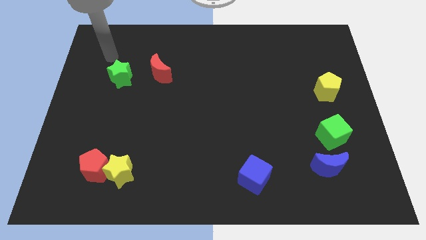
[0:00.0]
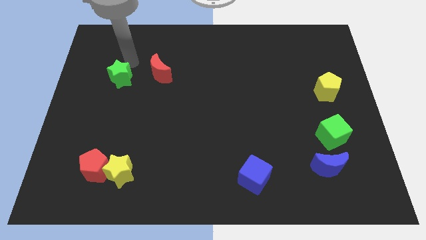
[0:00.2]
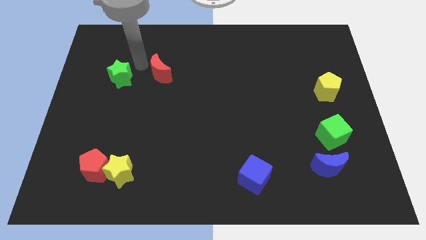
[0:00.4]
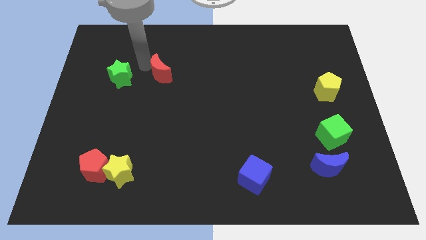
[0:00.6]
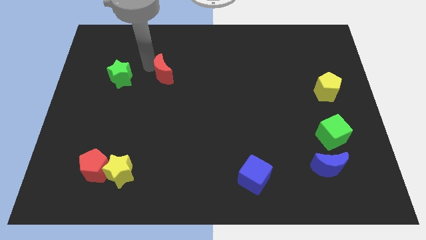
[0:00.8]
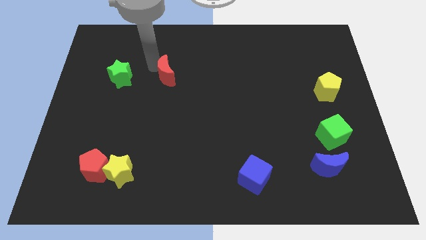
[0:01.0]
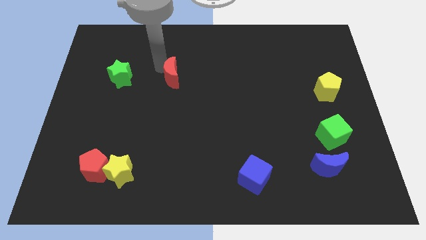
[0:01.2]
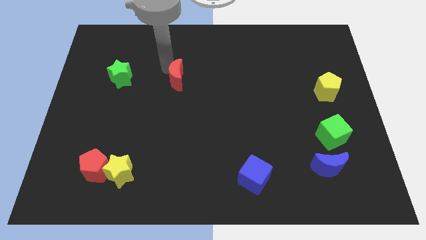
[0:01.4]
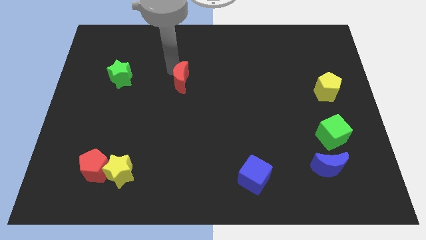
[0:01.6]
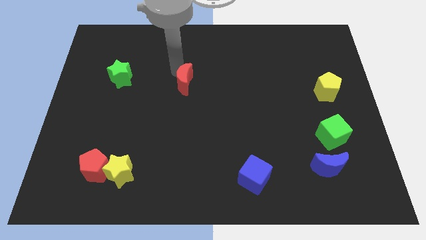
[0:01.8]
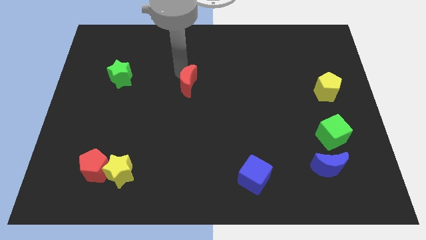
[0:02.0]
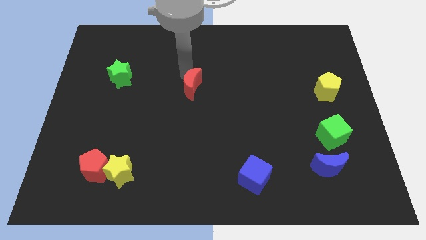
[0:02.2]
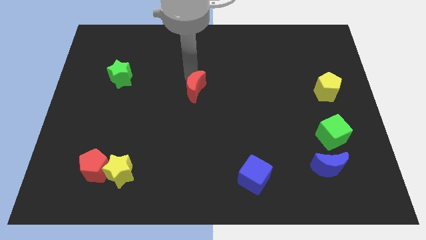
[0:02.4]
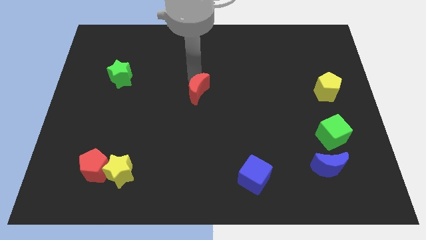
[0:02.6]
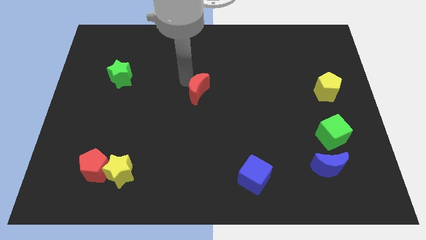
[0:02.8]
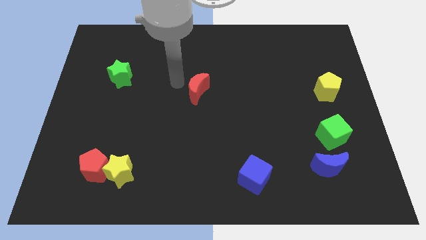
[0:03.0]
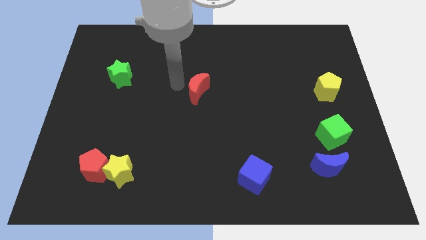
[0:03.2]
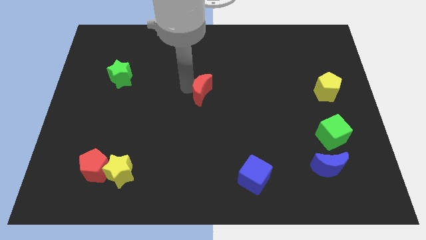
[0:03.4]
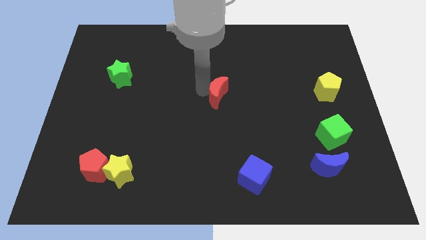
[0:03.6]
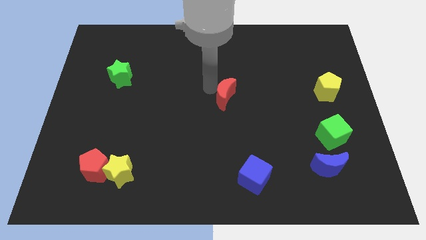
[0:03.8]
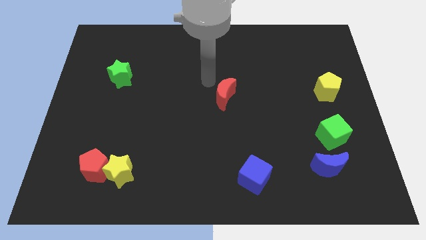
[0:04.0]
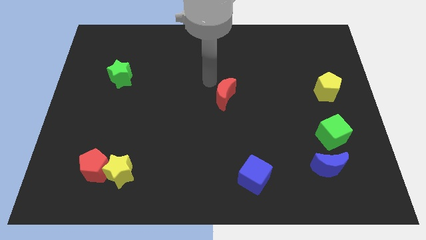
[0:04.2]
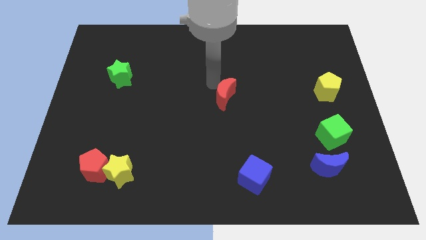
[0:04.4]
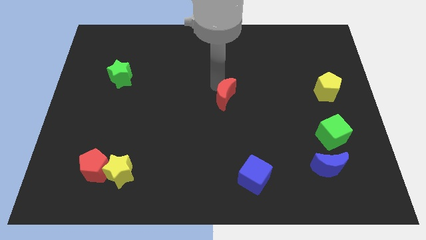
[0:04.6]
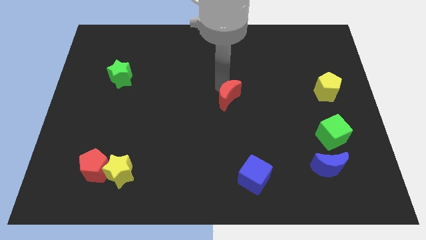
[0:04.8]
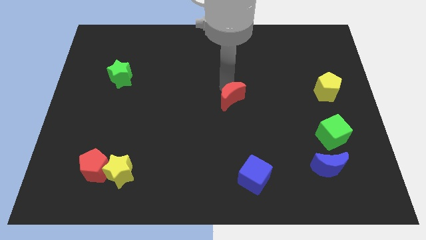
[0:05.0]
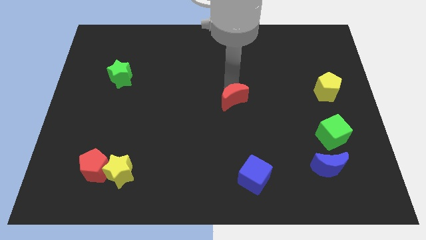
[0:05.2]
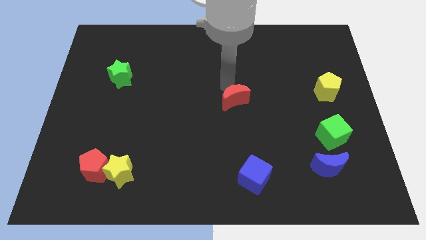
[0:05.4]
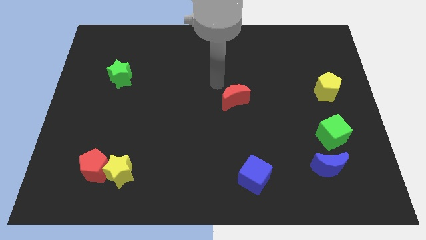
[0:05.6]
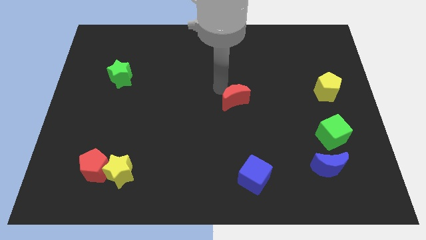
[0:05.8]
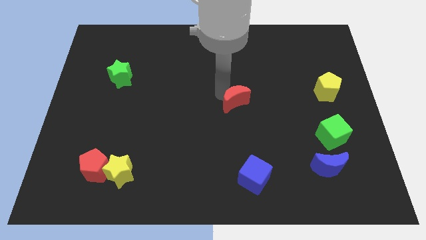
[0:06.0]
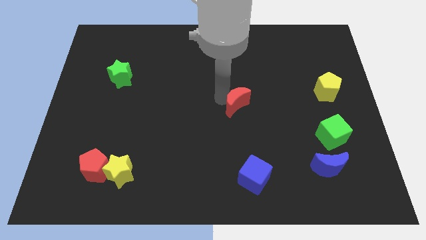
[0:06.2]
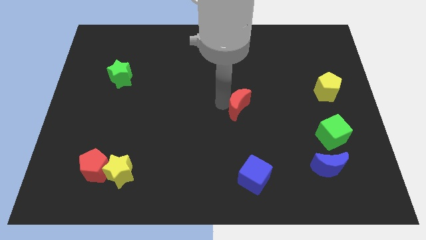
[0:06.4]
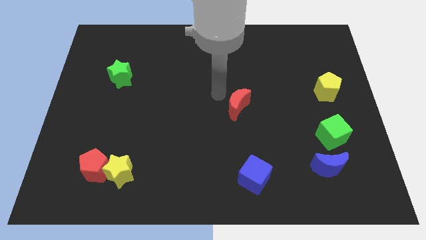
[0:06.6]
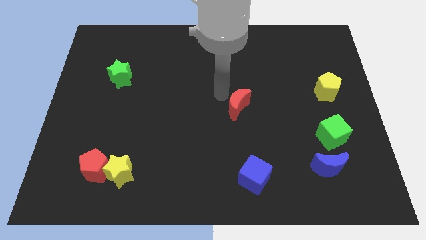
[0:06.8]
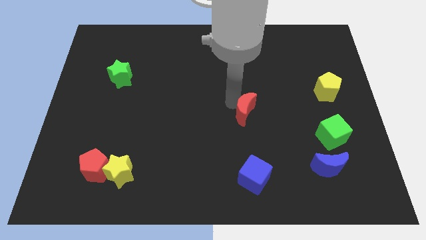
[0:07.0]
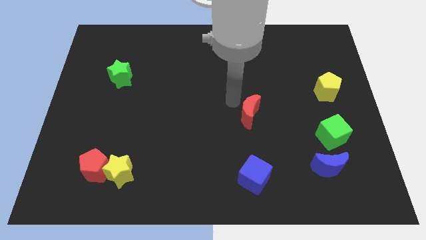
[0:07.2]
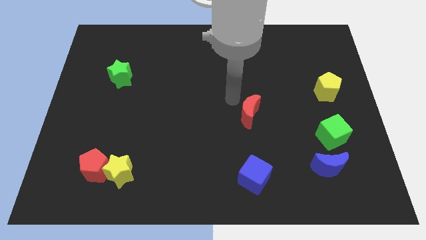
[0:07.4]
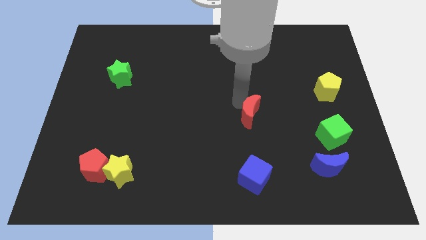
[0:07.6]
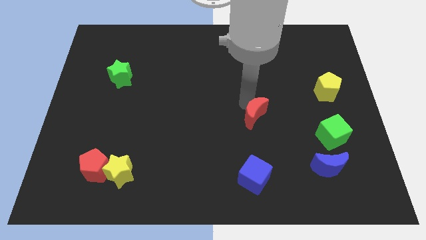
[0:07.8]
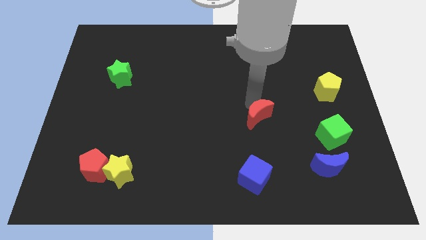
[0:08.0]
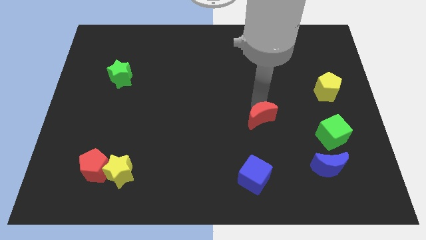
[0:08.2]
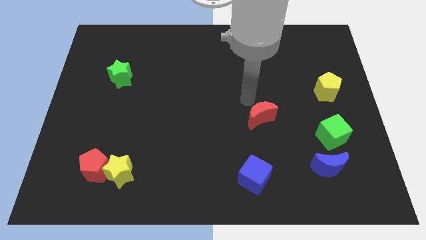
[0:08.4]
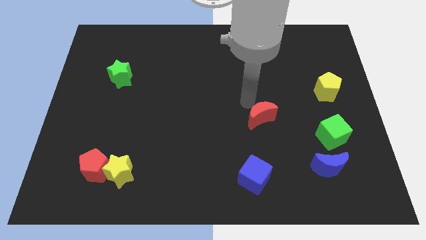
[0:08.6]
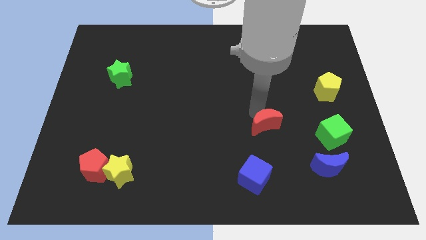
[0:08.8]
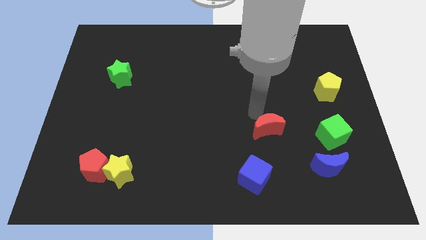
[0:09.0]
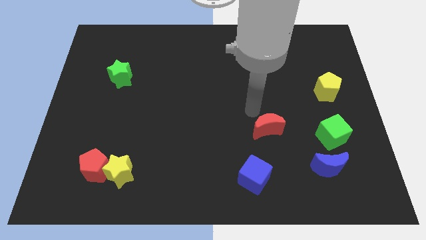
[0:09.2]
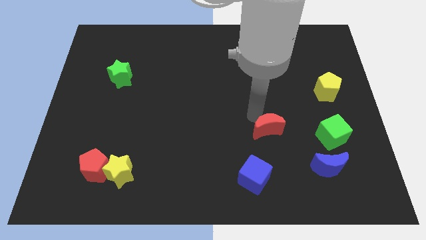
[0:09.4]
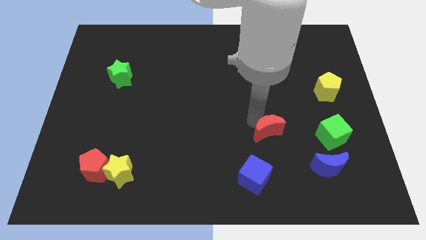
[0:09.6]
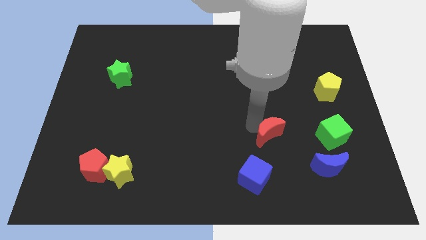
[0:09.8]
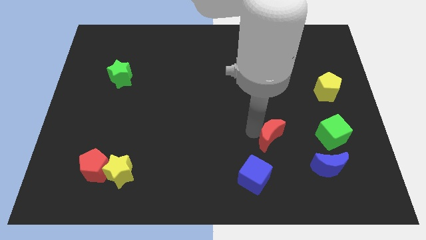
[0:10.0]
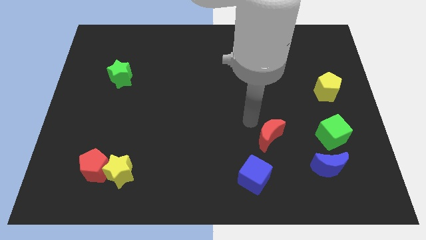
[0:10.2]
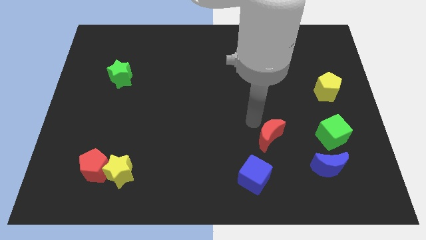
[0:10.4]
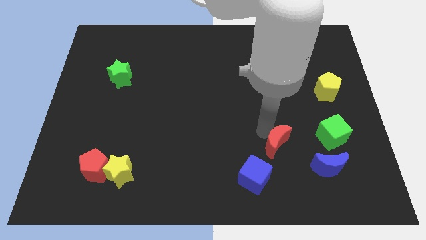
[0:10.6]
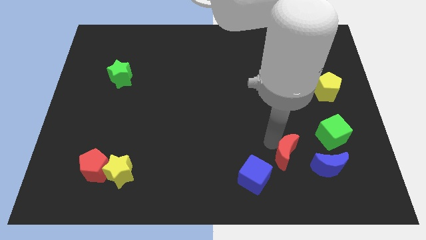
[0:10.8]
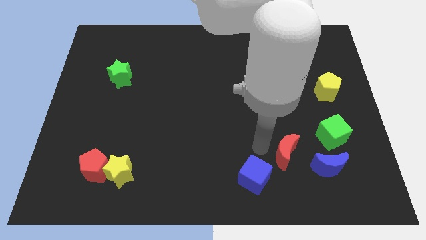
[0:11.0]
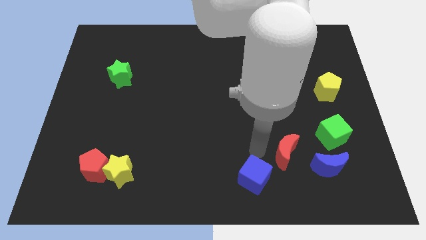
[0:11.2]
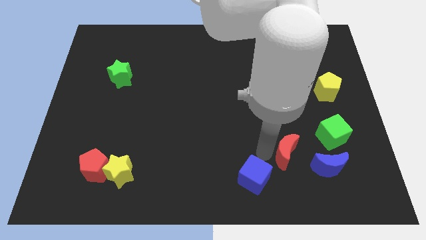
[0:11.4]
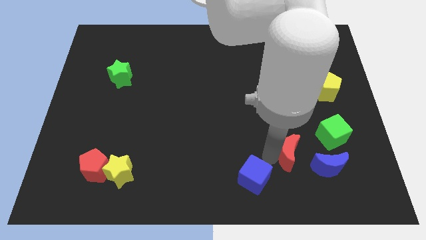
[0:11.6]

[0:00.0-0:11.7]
push the red moon to the bottom left of the green cube
